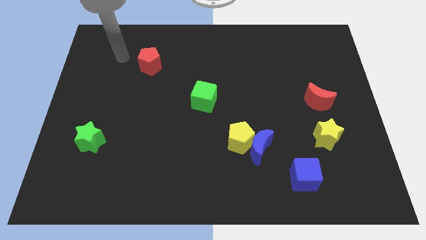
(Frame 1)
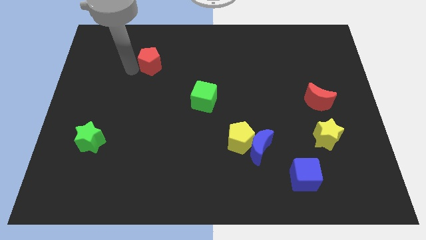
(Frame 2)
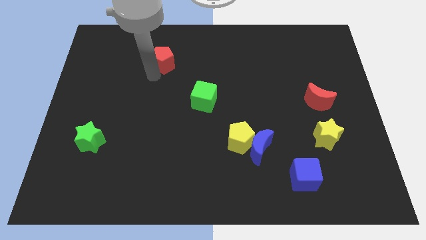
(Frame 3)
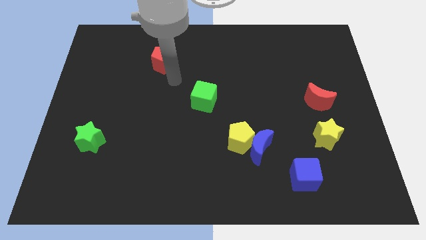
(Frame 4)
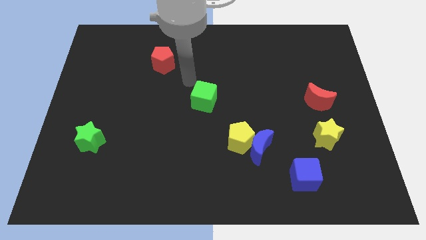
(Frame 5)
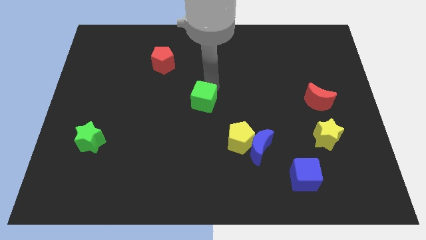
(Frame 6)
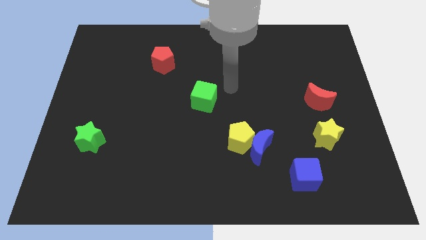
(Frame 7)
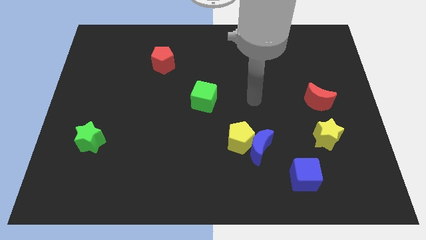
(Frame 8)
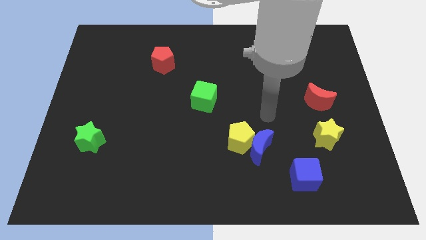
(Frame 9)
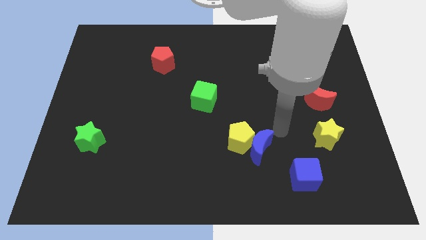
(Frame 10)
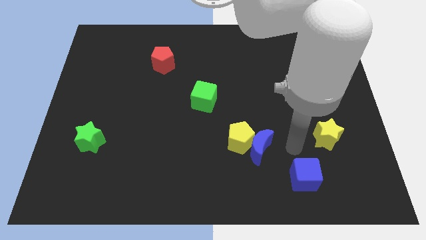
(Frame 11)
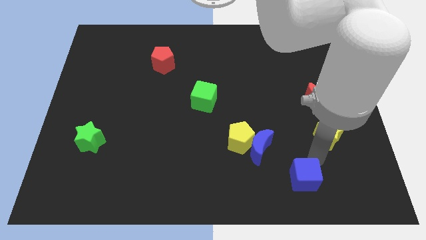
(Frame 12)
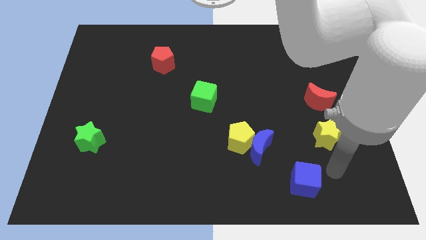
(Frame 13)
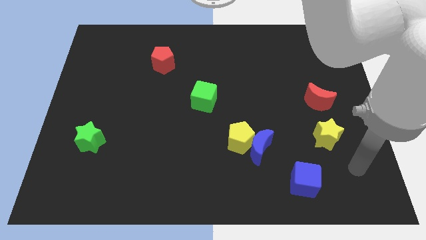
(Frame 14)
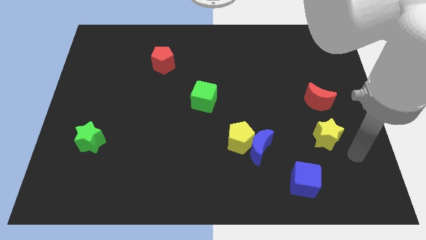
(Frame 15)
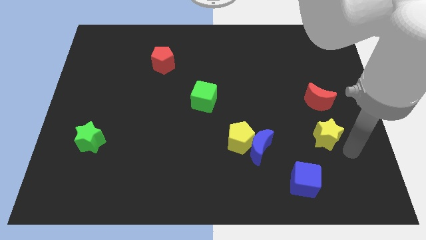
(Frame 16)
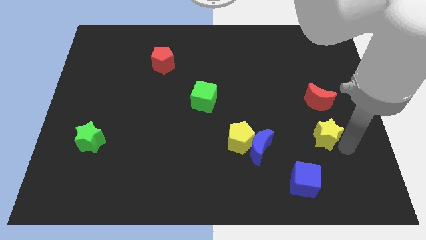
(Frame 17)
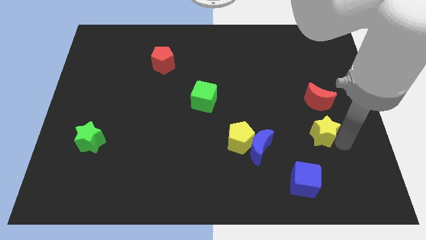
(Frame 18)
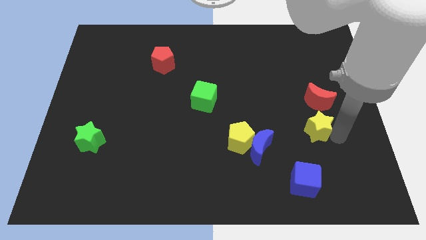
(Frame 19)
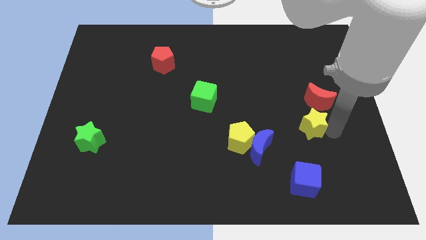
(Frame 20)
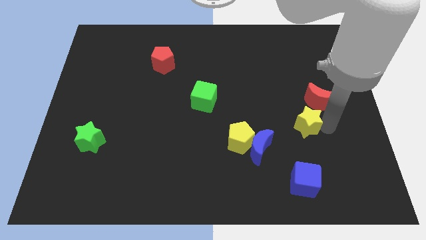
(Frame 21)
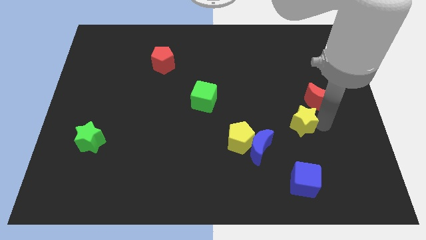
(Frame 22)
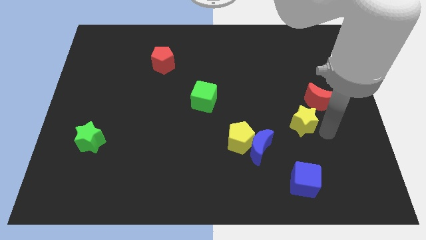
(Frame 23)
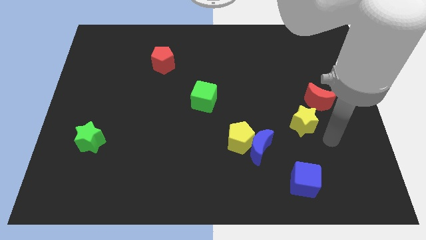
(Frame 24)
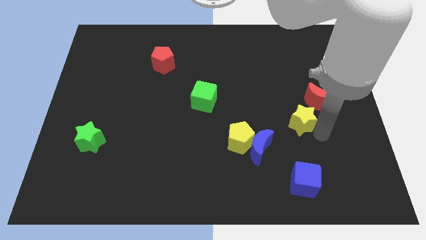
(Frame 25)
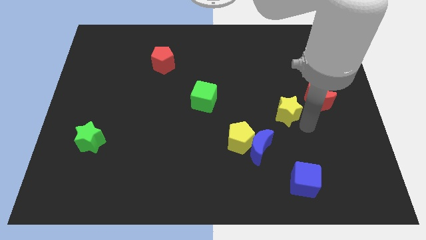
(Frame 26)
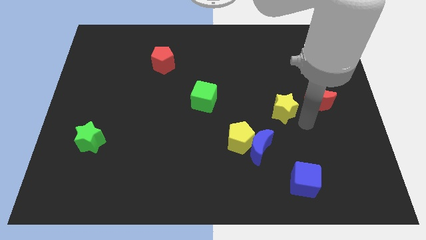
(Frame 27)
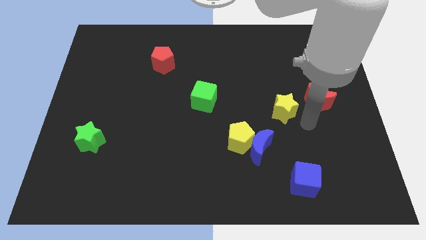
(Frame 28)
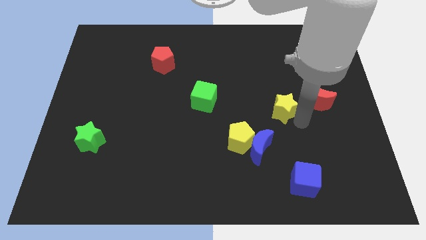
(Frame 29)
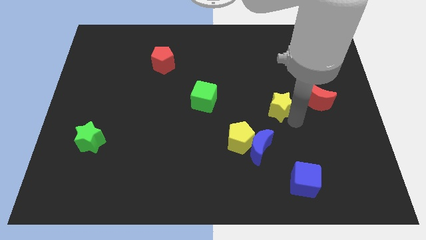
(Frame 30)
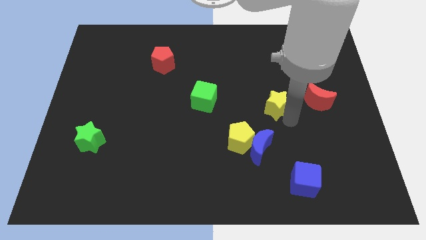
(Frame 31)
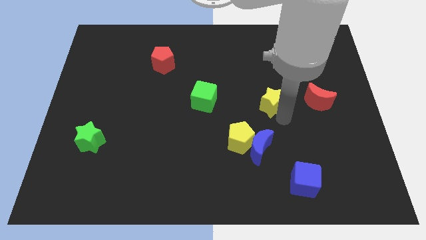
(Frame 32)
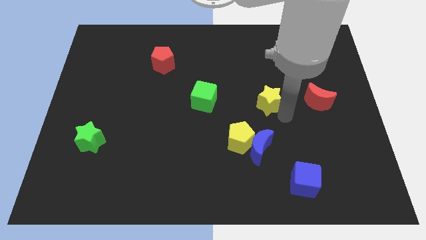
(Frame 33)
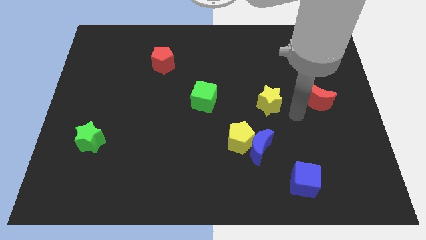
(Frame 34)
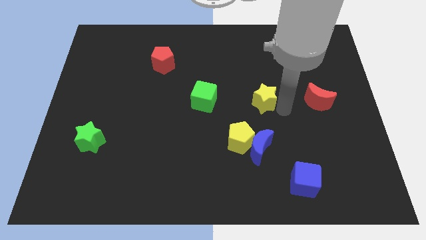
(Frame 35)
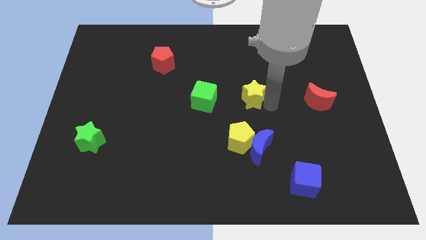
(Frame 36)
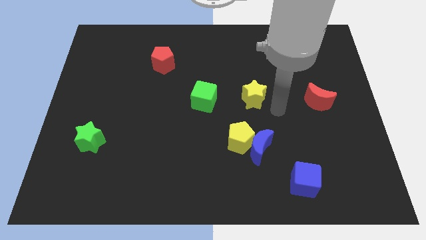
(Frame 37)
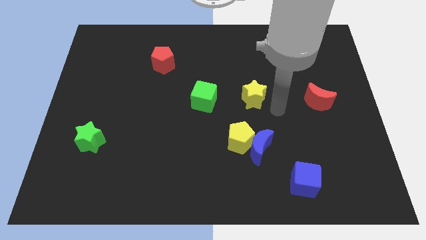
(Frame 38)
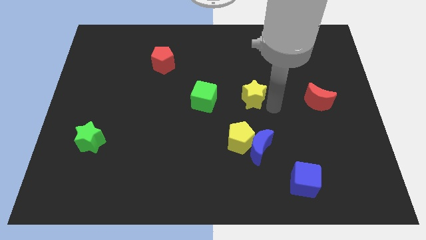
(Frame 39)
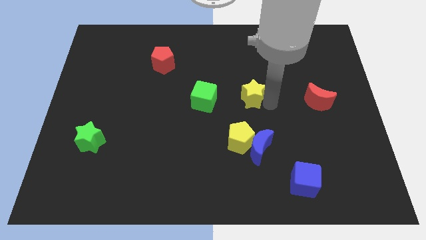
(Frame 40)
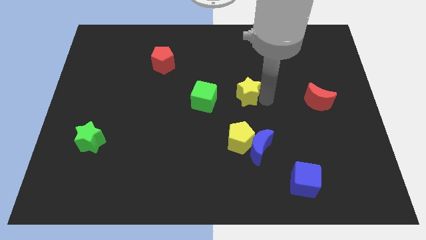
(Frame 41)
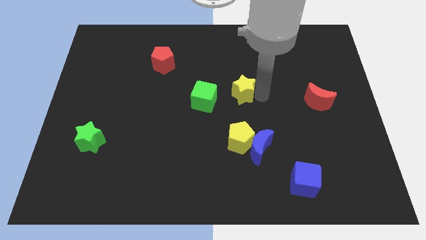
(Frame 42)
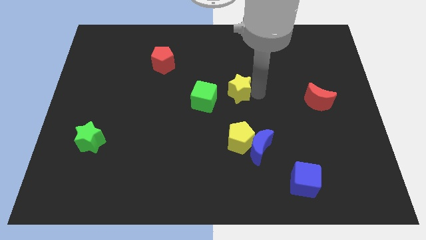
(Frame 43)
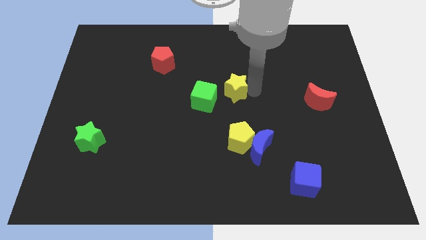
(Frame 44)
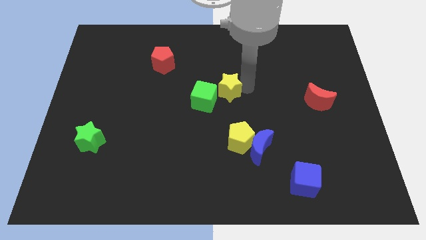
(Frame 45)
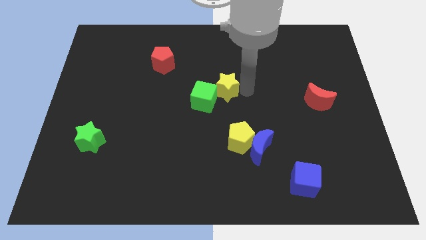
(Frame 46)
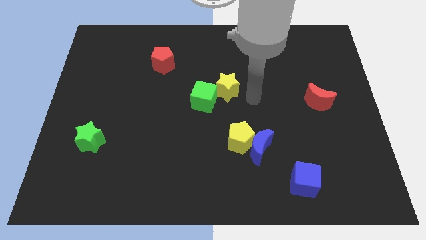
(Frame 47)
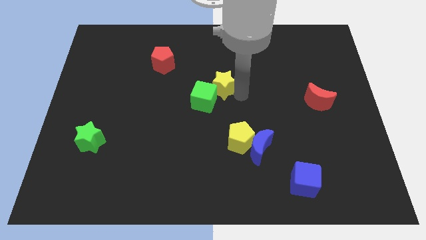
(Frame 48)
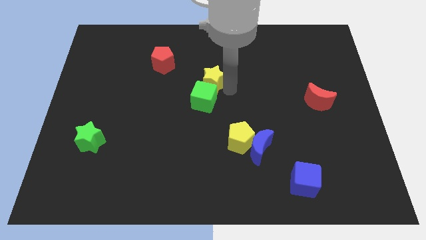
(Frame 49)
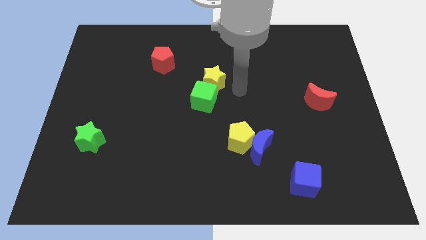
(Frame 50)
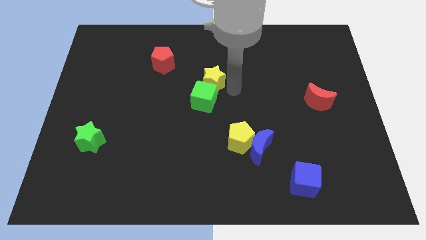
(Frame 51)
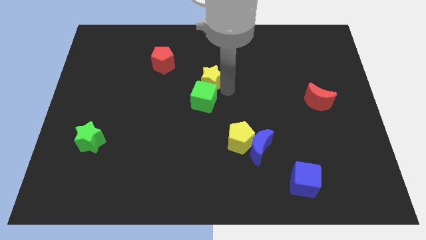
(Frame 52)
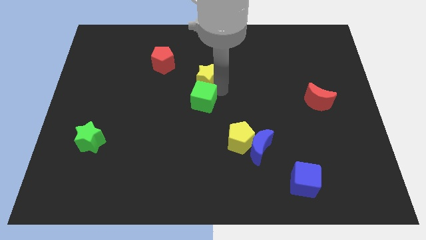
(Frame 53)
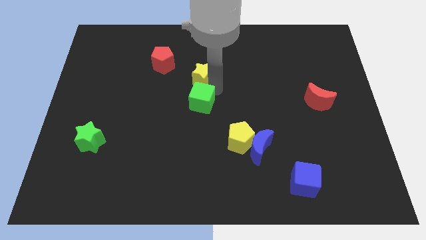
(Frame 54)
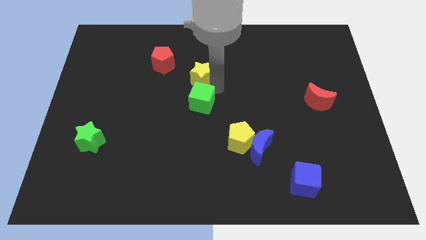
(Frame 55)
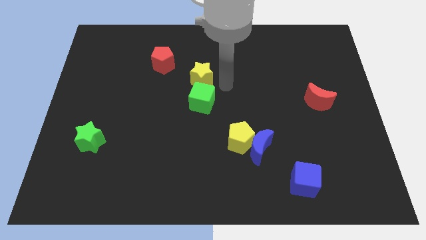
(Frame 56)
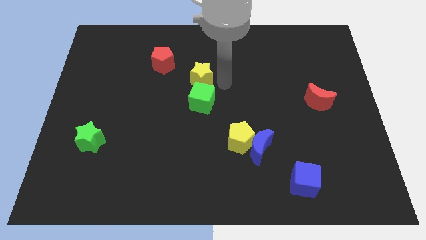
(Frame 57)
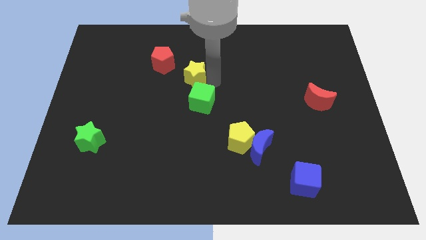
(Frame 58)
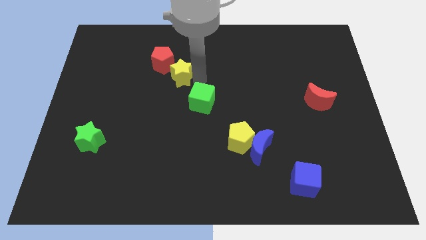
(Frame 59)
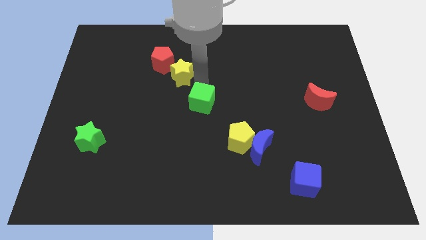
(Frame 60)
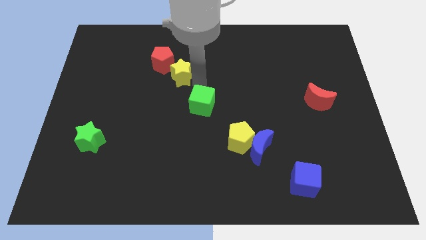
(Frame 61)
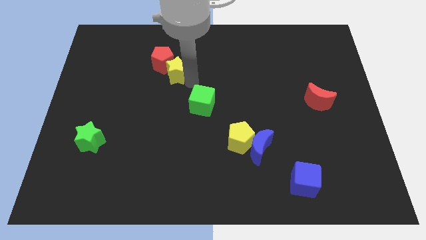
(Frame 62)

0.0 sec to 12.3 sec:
move the yellow star next to the red pentagon

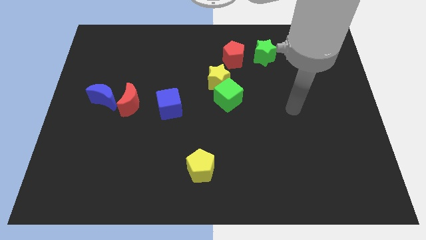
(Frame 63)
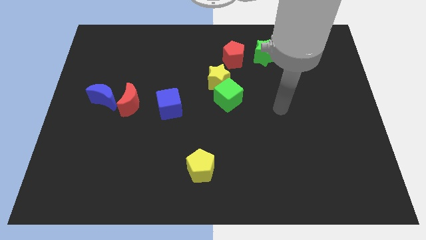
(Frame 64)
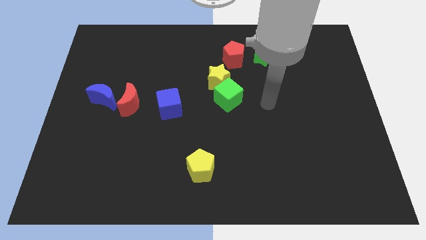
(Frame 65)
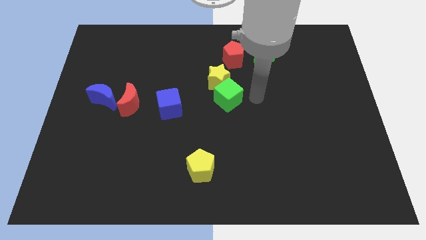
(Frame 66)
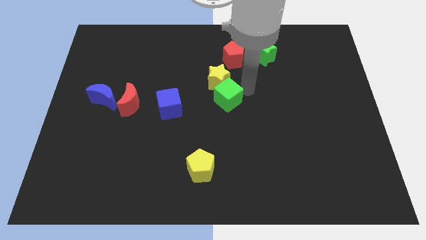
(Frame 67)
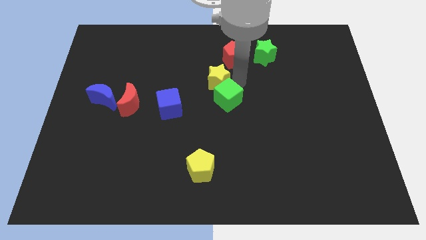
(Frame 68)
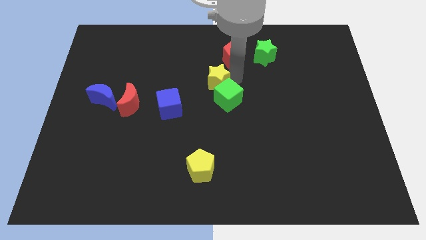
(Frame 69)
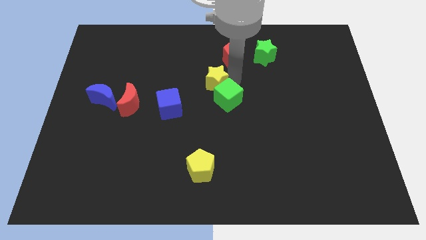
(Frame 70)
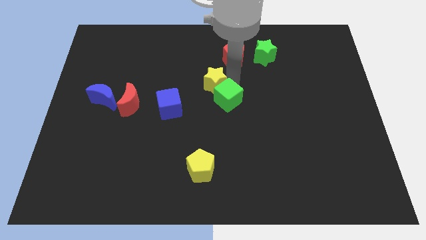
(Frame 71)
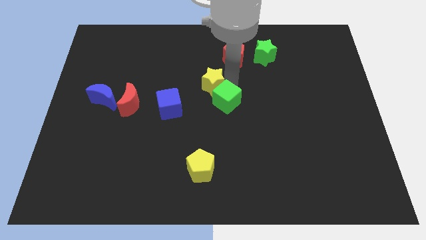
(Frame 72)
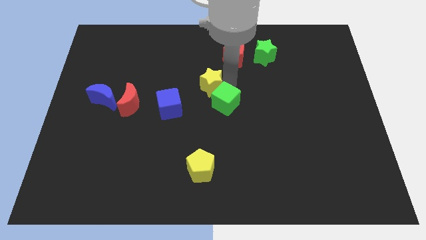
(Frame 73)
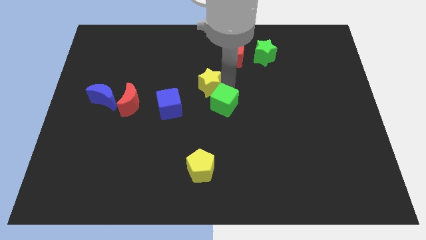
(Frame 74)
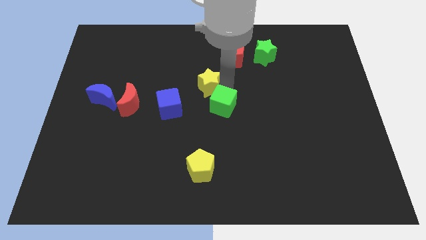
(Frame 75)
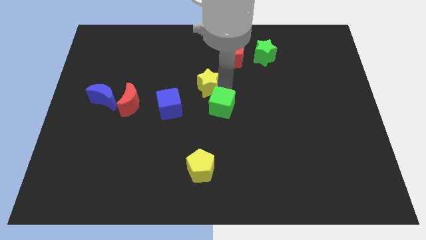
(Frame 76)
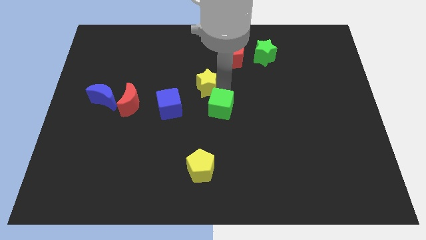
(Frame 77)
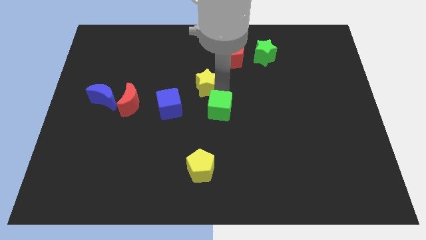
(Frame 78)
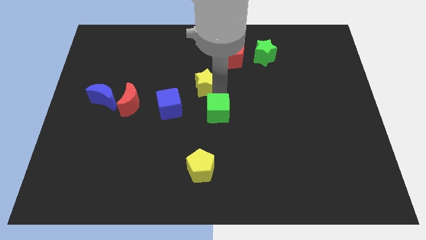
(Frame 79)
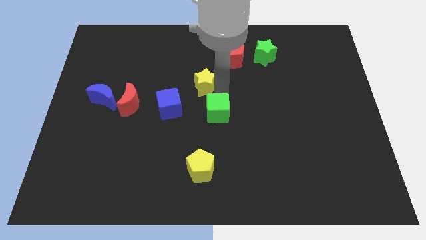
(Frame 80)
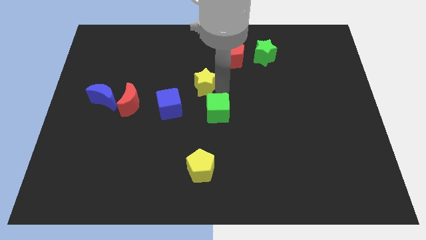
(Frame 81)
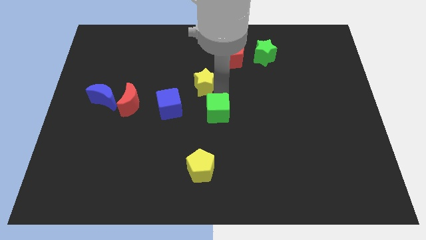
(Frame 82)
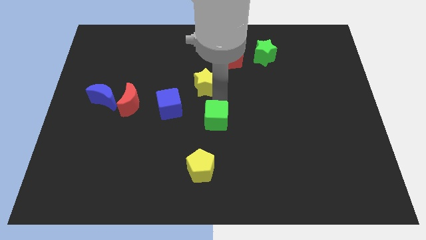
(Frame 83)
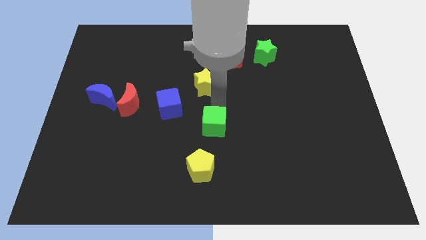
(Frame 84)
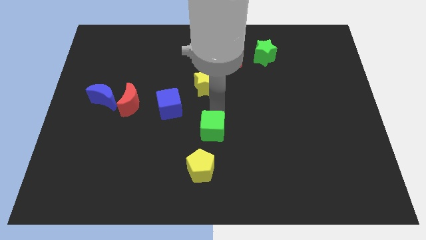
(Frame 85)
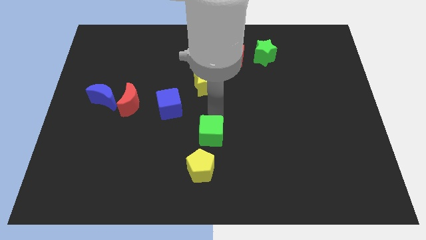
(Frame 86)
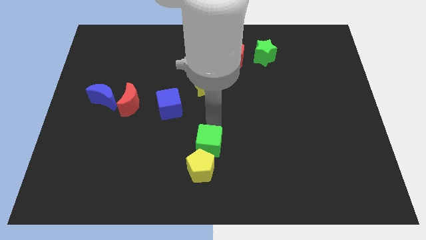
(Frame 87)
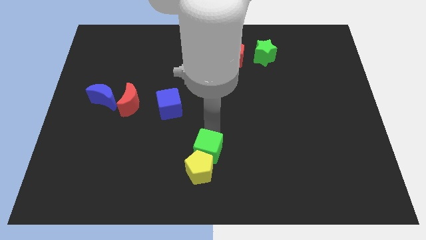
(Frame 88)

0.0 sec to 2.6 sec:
push the green cube to the yellow pentagon
